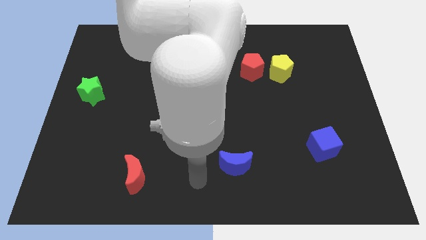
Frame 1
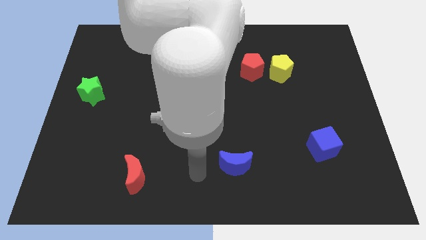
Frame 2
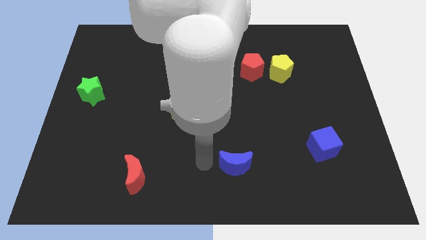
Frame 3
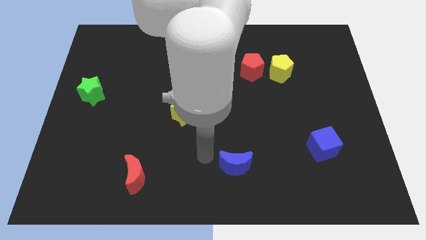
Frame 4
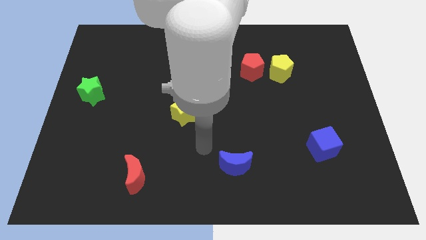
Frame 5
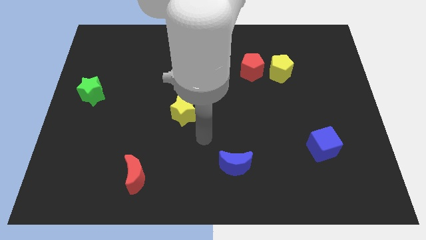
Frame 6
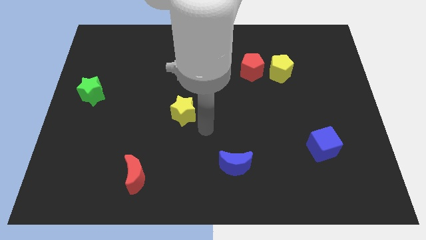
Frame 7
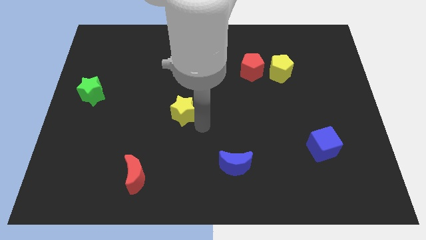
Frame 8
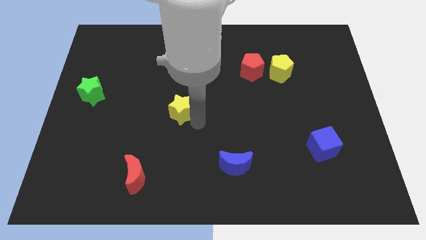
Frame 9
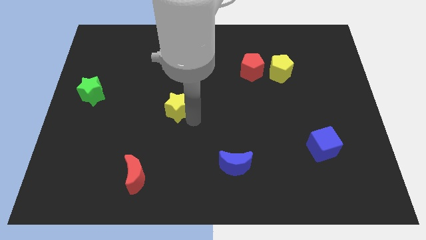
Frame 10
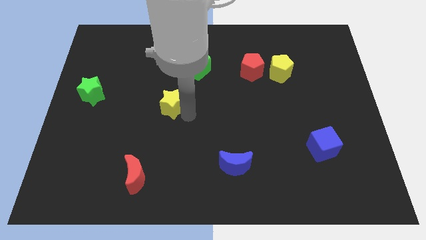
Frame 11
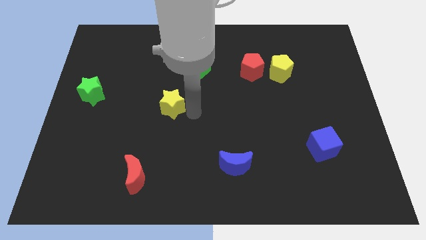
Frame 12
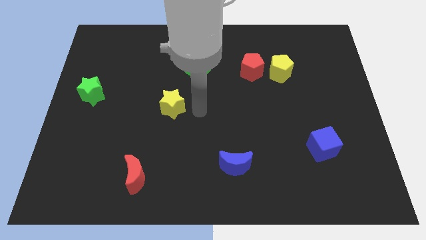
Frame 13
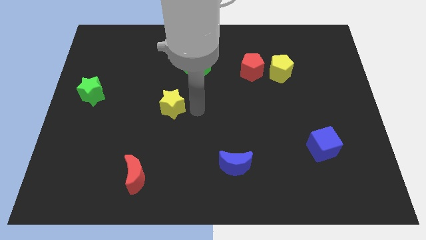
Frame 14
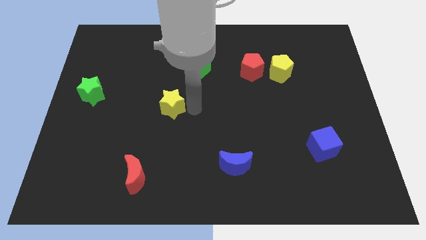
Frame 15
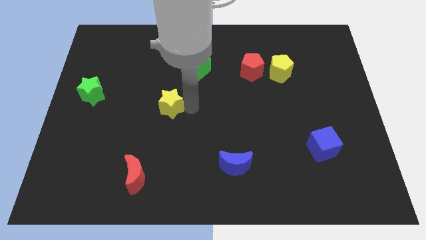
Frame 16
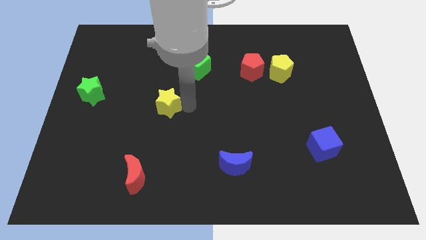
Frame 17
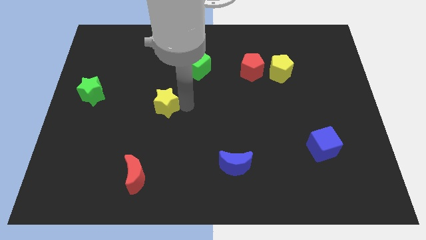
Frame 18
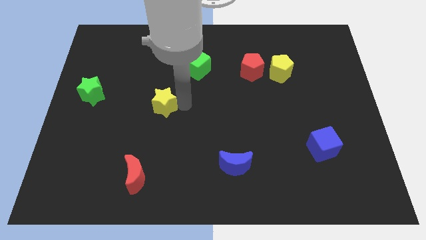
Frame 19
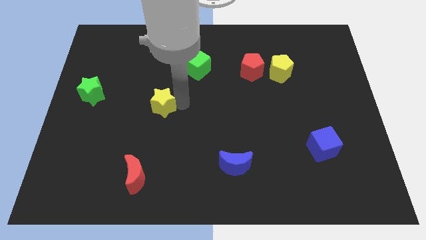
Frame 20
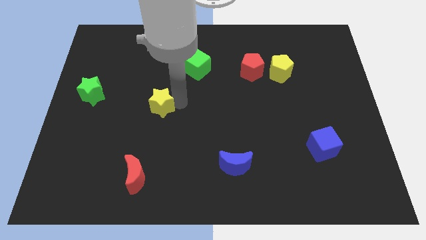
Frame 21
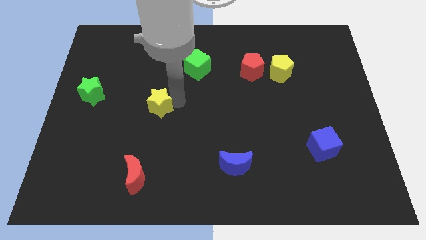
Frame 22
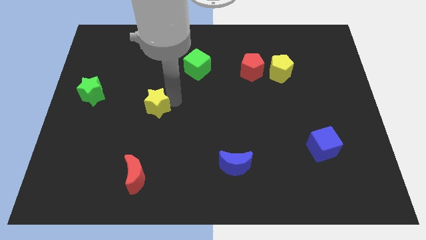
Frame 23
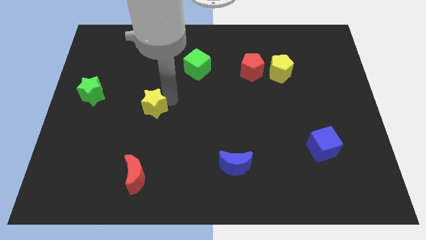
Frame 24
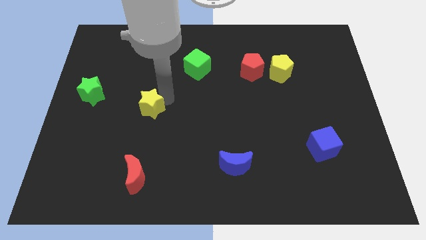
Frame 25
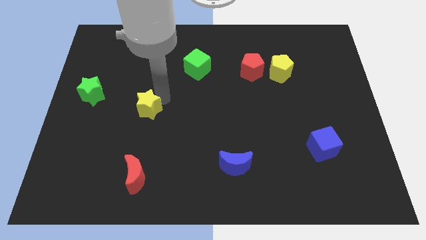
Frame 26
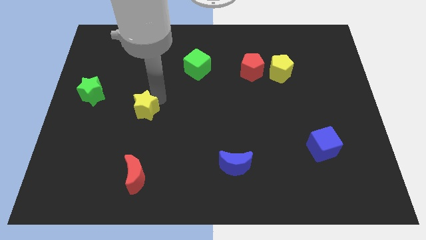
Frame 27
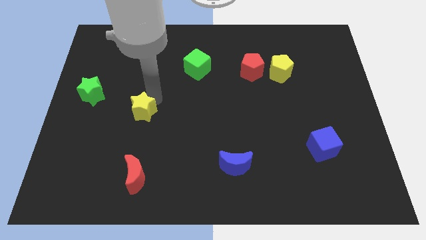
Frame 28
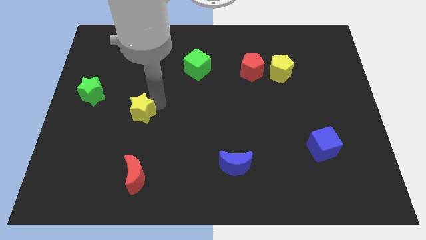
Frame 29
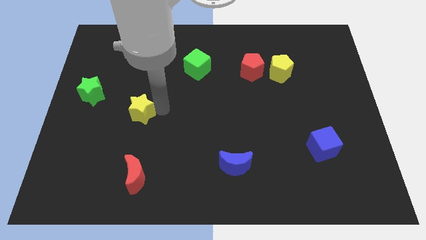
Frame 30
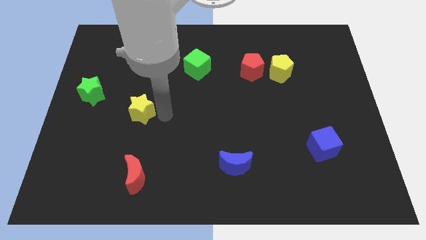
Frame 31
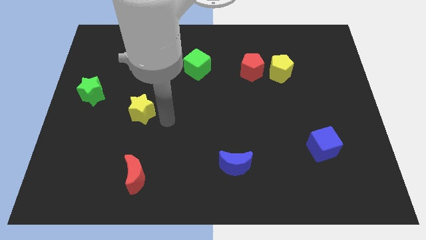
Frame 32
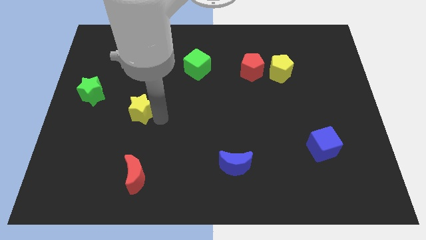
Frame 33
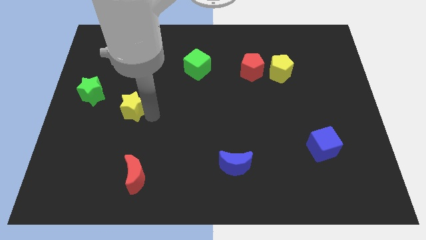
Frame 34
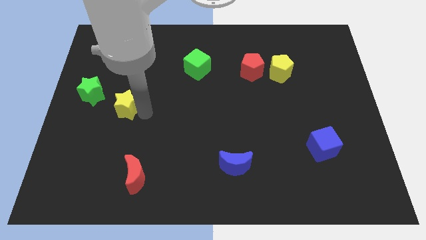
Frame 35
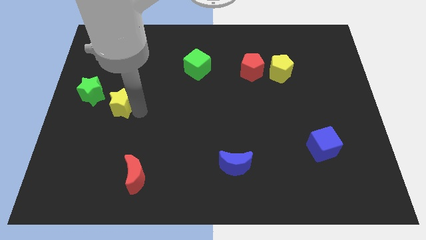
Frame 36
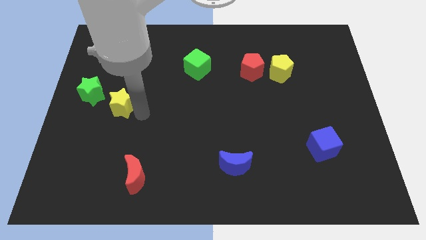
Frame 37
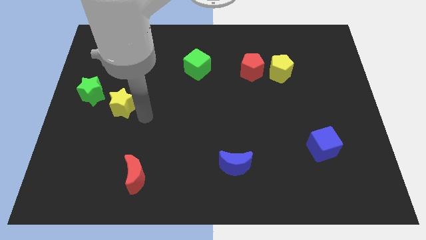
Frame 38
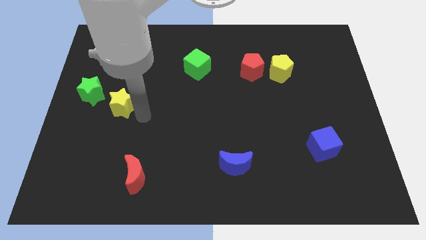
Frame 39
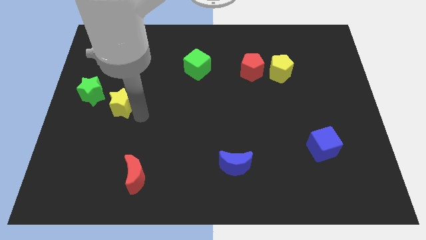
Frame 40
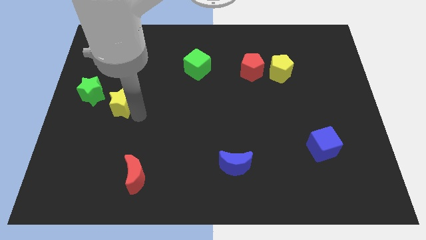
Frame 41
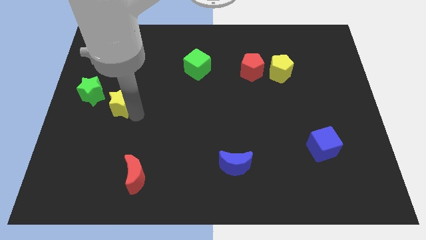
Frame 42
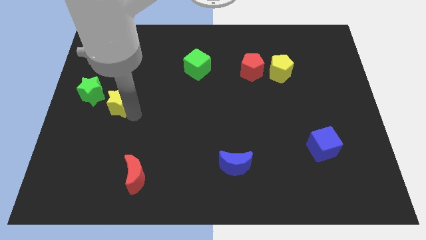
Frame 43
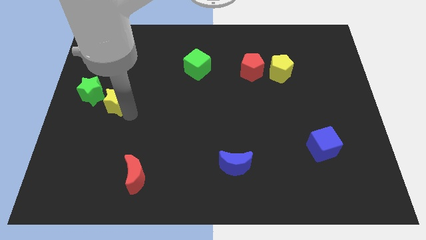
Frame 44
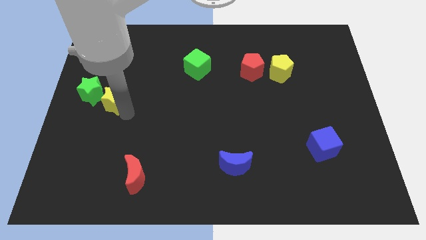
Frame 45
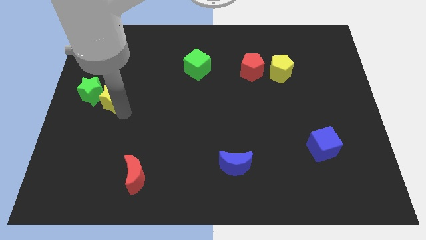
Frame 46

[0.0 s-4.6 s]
slide the yellow star towards the green star

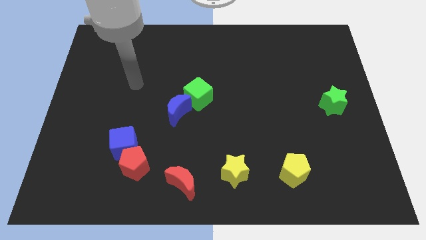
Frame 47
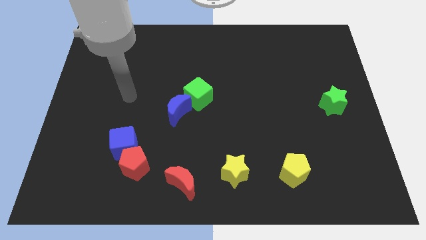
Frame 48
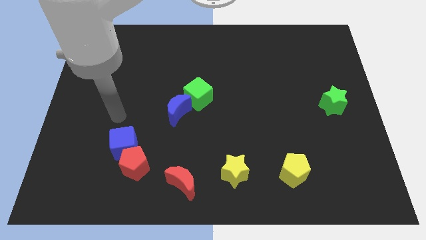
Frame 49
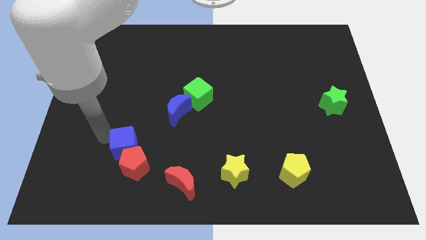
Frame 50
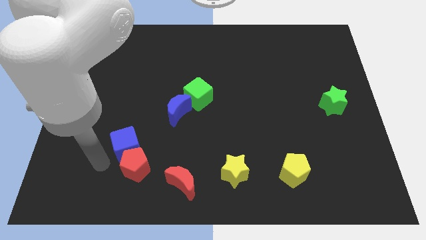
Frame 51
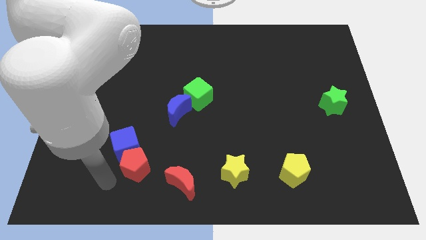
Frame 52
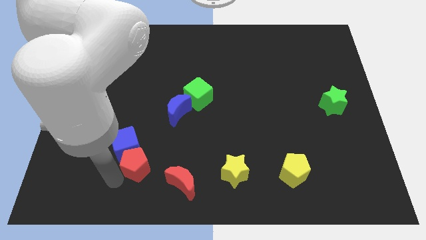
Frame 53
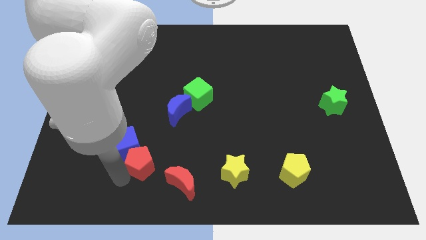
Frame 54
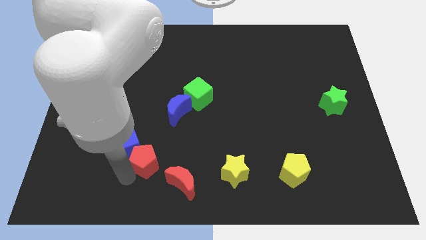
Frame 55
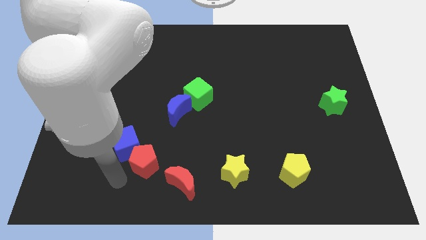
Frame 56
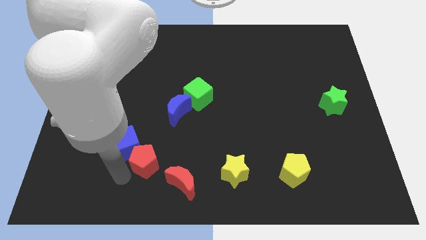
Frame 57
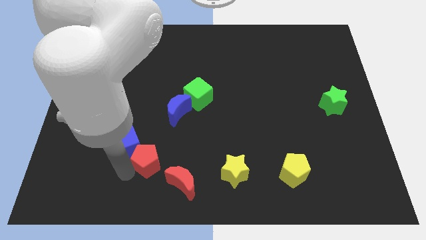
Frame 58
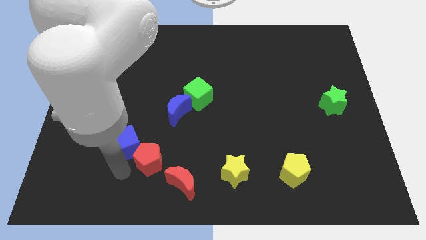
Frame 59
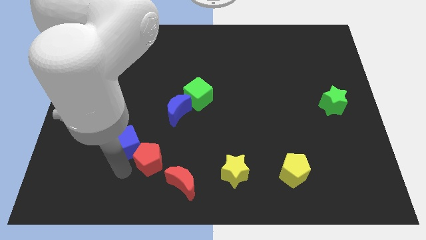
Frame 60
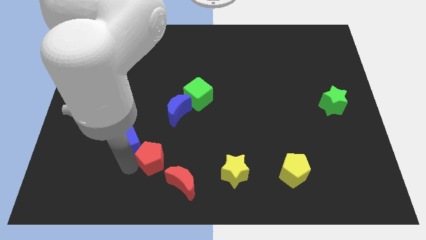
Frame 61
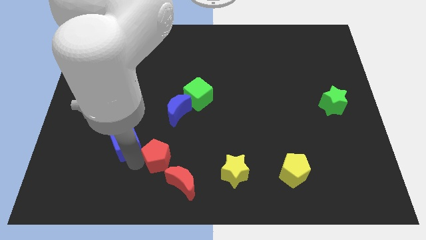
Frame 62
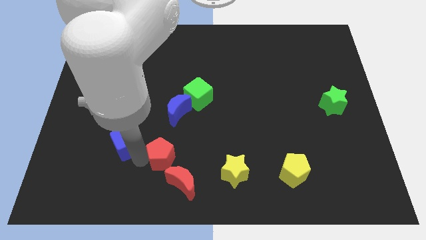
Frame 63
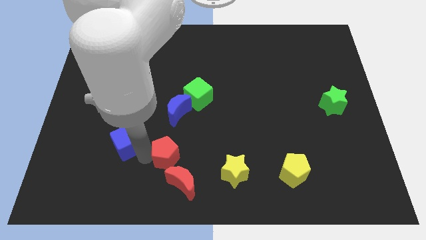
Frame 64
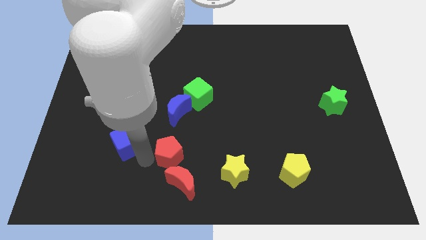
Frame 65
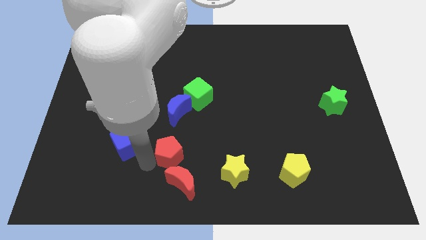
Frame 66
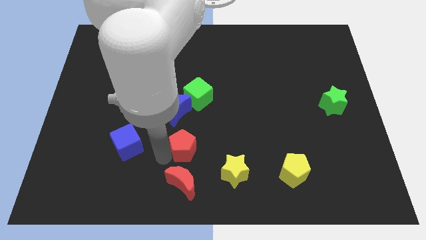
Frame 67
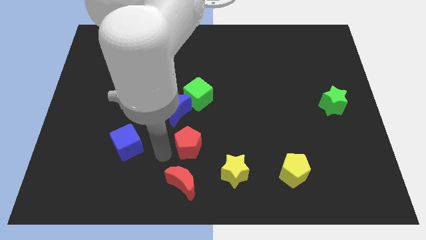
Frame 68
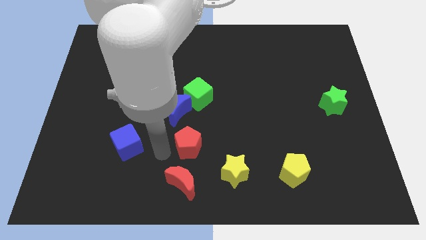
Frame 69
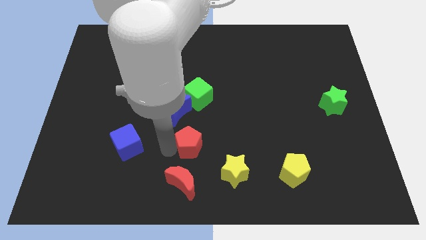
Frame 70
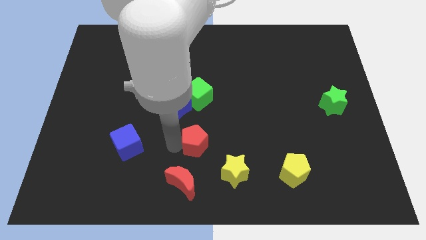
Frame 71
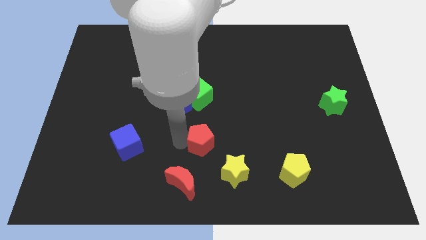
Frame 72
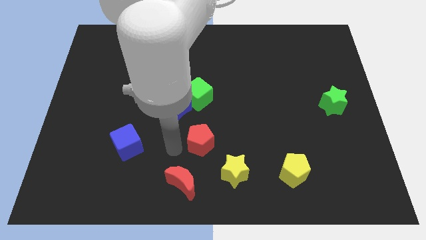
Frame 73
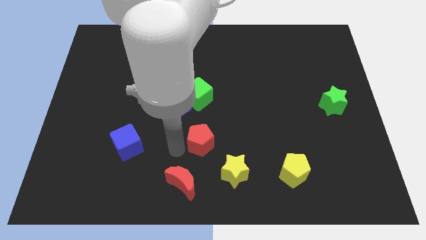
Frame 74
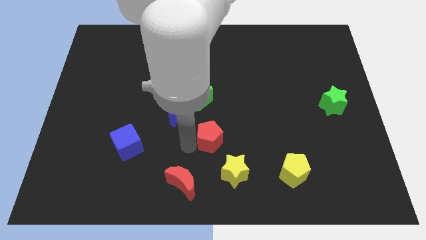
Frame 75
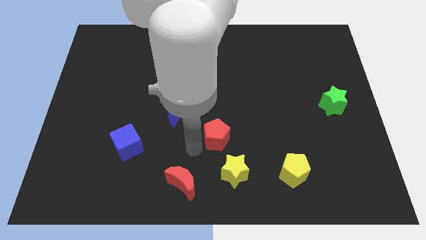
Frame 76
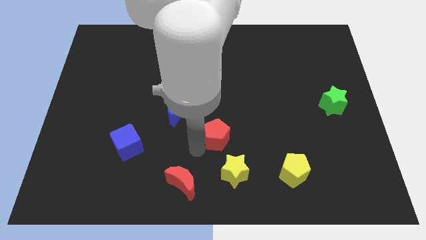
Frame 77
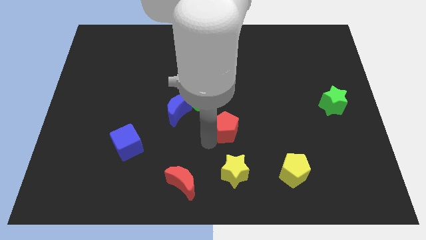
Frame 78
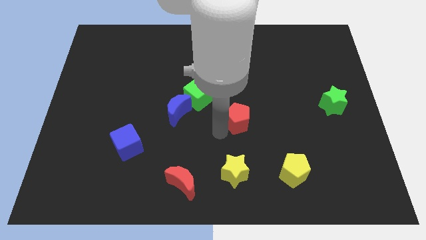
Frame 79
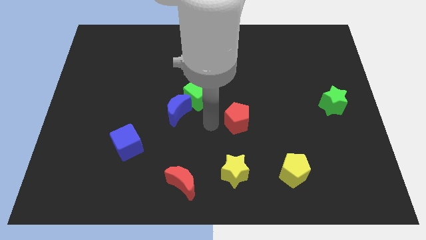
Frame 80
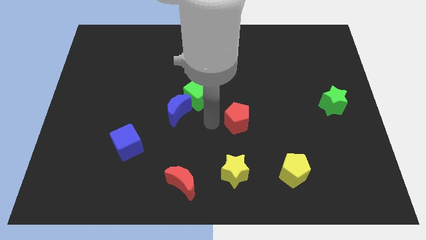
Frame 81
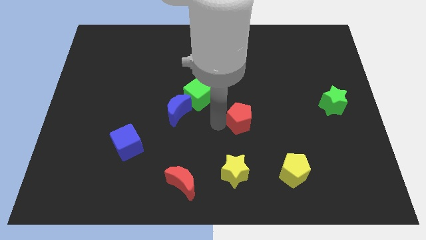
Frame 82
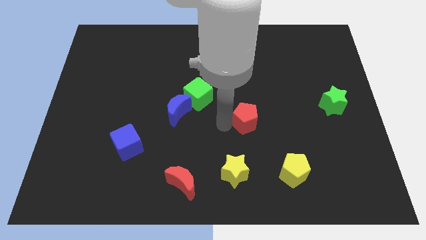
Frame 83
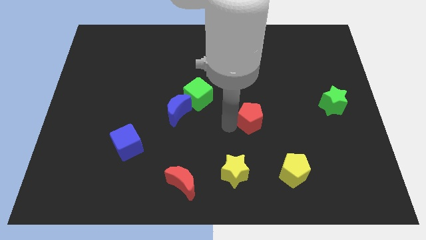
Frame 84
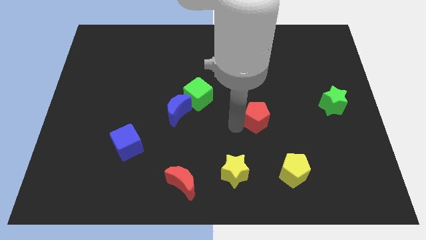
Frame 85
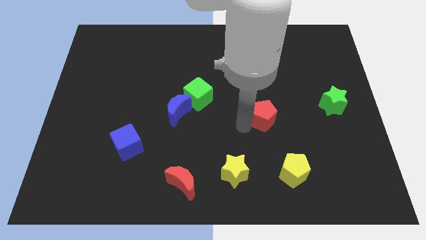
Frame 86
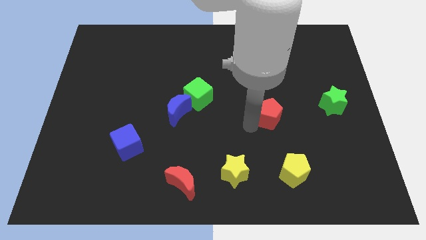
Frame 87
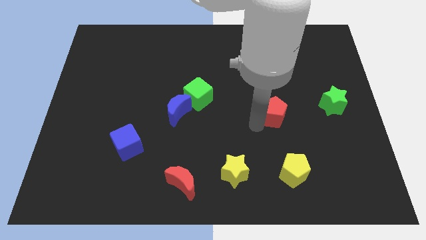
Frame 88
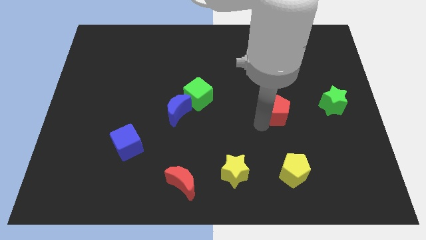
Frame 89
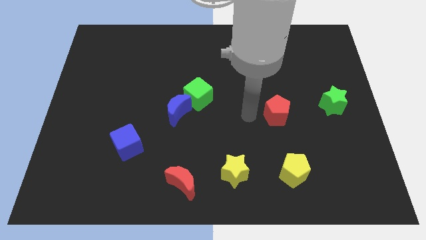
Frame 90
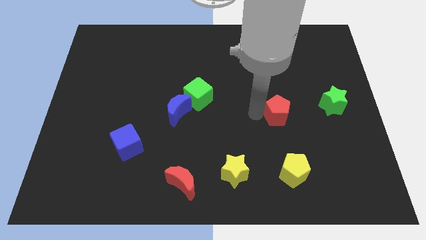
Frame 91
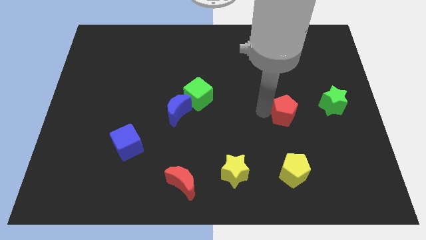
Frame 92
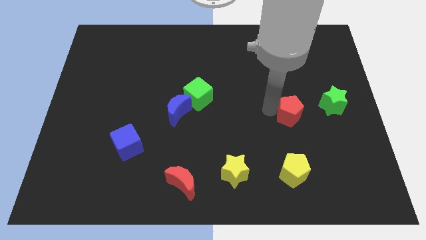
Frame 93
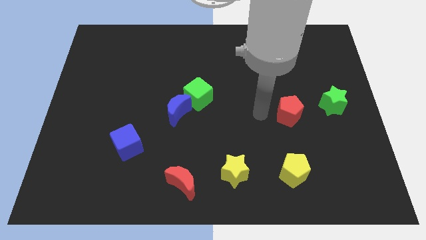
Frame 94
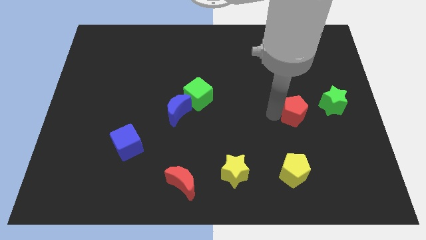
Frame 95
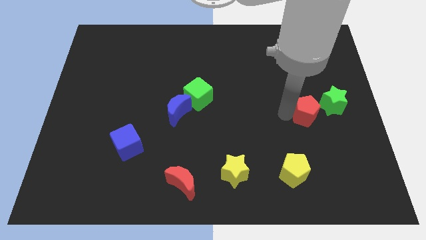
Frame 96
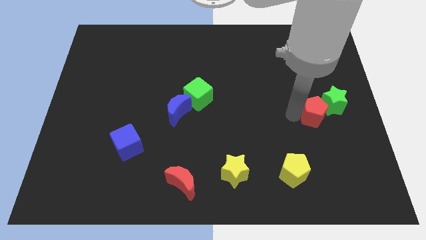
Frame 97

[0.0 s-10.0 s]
push the red pentagon towards the green star
